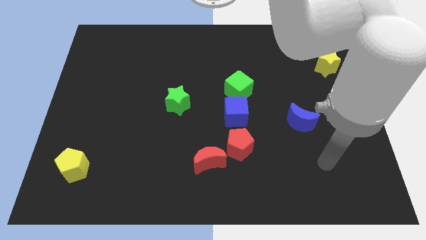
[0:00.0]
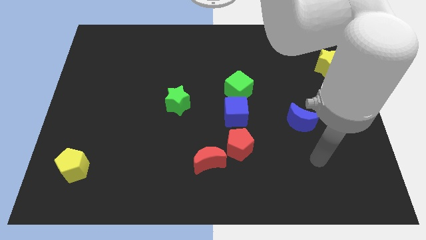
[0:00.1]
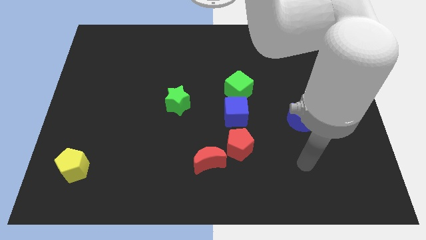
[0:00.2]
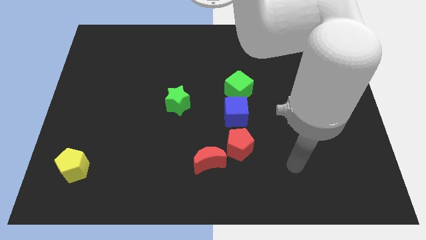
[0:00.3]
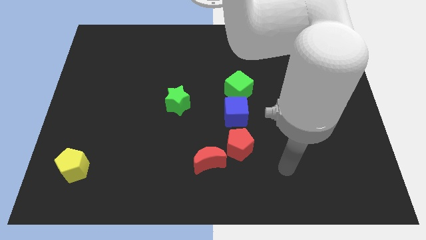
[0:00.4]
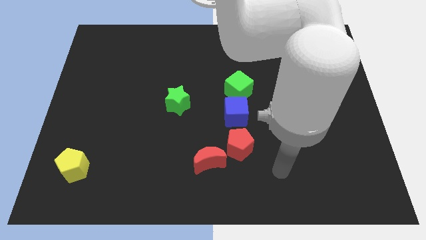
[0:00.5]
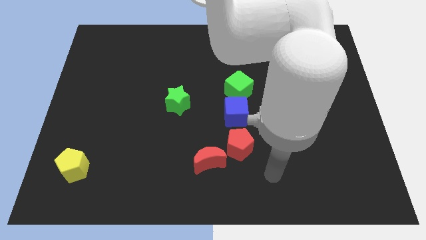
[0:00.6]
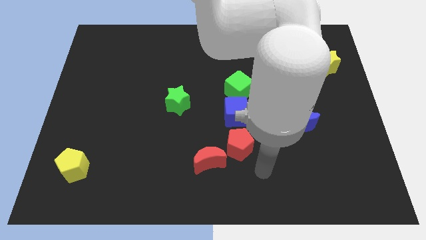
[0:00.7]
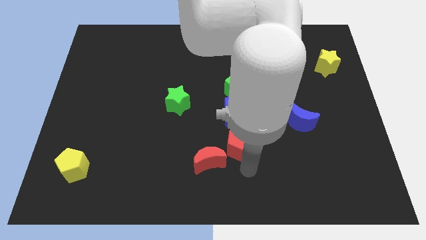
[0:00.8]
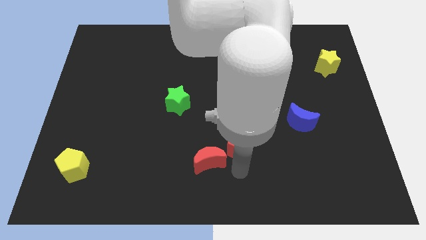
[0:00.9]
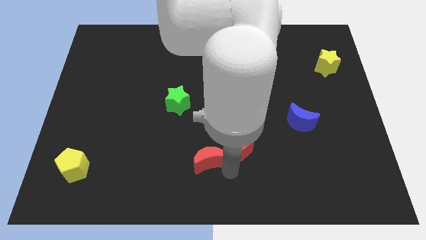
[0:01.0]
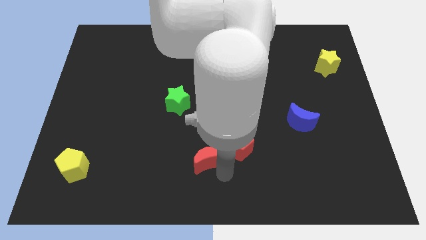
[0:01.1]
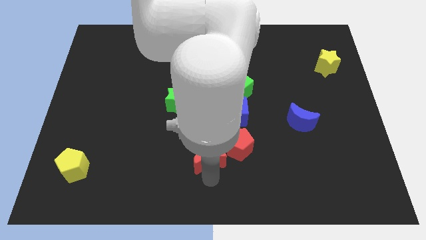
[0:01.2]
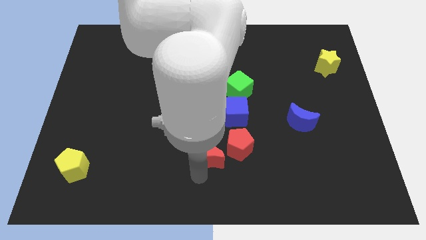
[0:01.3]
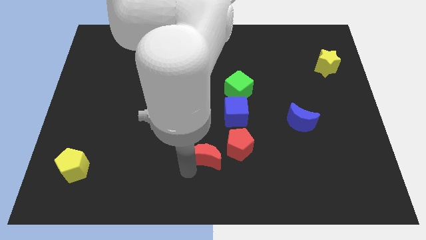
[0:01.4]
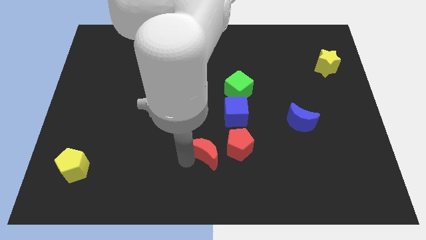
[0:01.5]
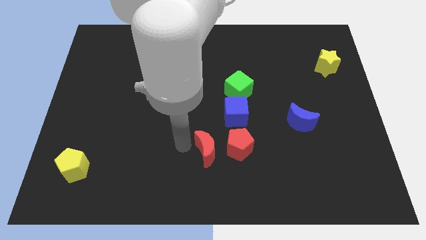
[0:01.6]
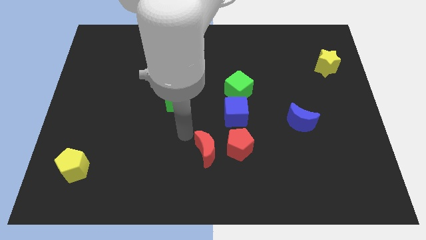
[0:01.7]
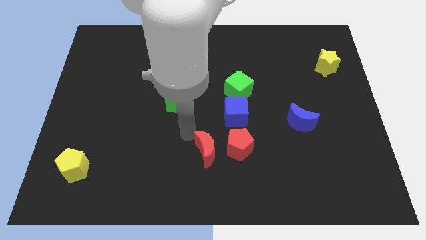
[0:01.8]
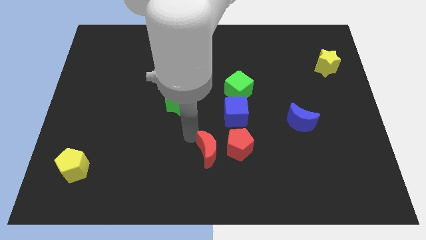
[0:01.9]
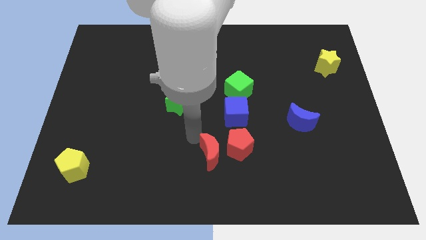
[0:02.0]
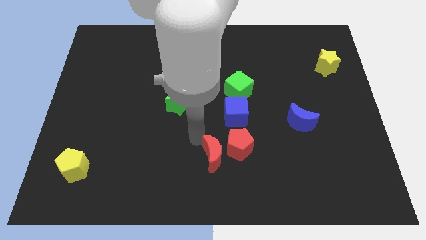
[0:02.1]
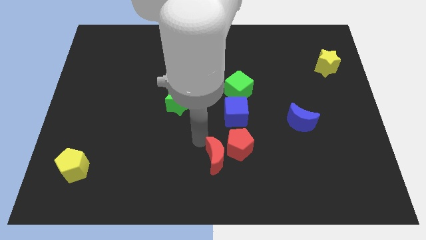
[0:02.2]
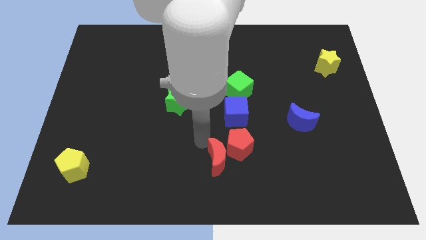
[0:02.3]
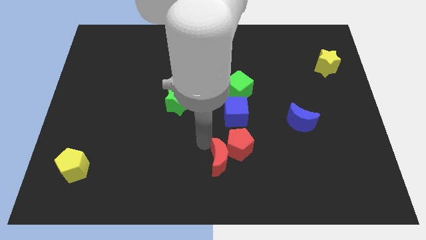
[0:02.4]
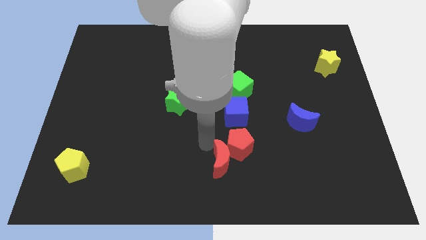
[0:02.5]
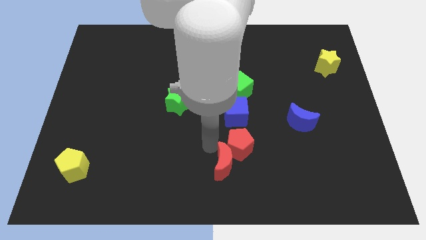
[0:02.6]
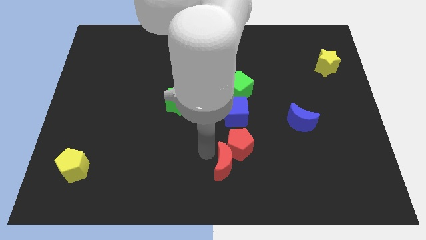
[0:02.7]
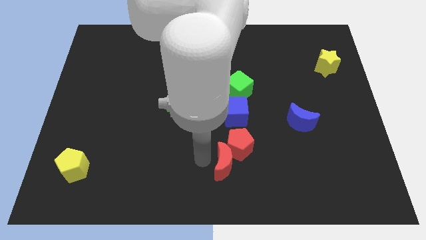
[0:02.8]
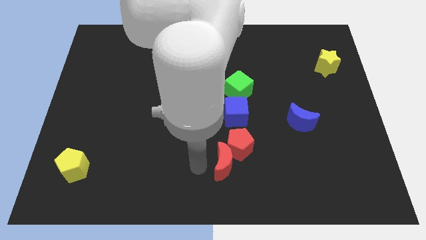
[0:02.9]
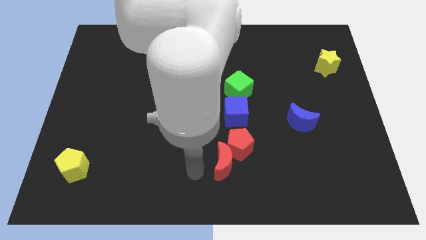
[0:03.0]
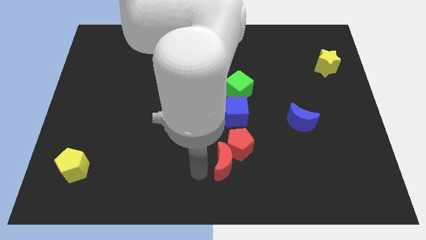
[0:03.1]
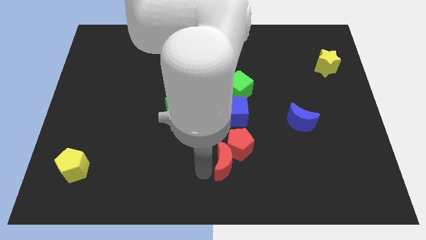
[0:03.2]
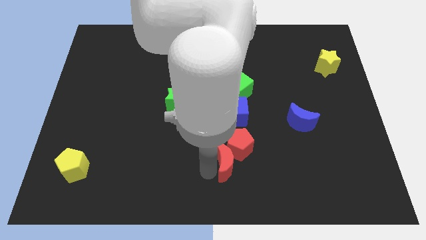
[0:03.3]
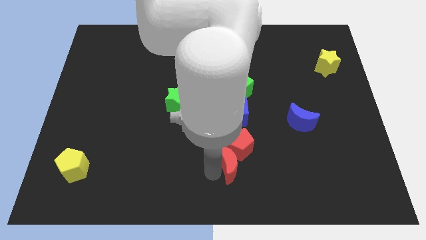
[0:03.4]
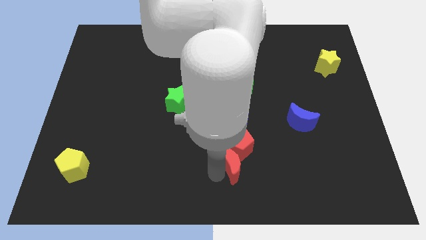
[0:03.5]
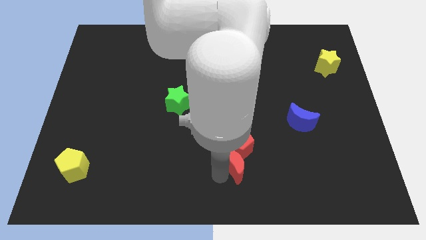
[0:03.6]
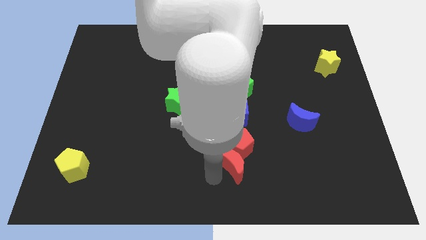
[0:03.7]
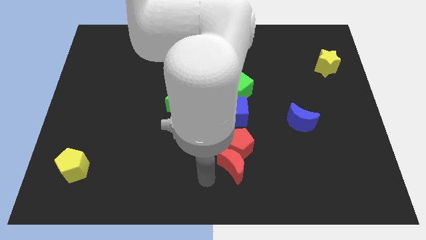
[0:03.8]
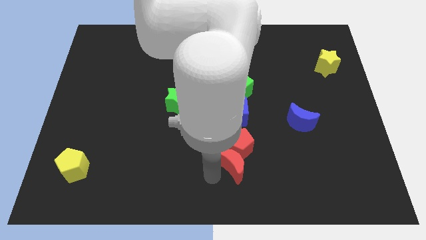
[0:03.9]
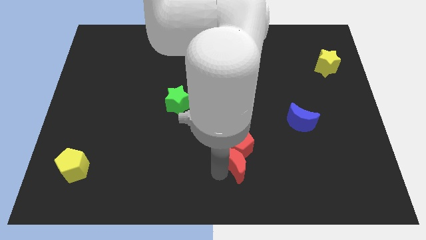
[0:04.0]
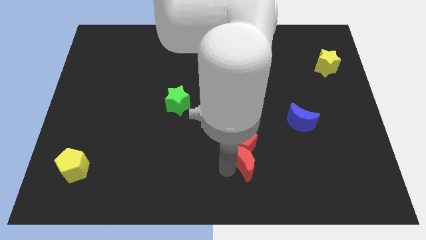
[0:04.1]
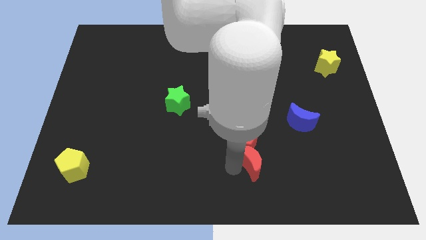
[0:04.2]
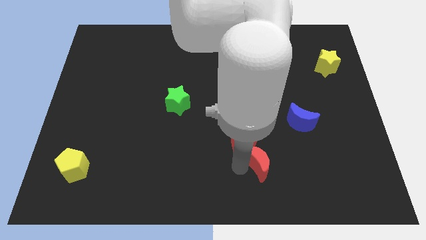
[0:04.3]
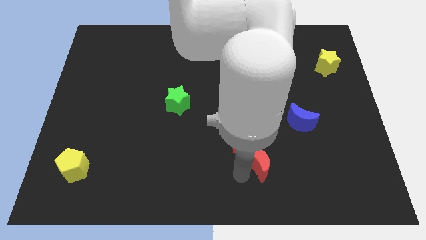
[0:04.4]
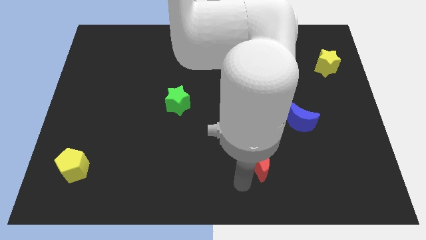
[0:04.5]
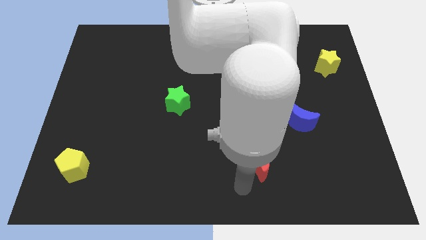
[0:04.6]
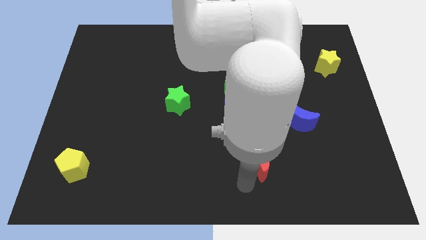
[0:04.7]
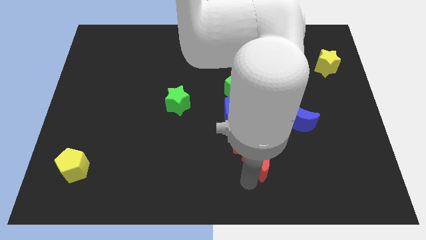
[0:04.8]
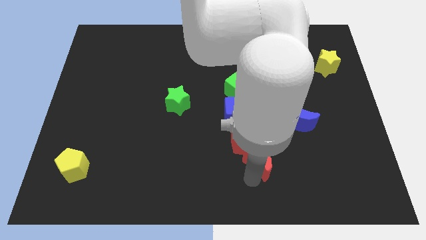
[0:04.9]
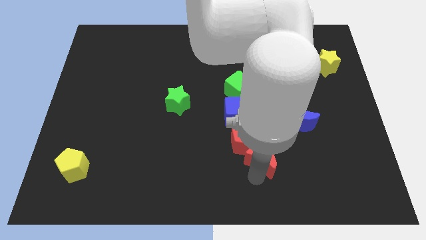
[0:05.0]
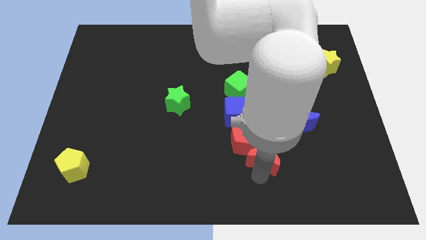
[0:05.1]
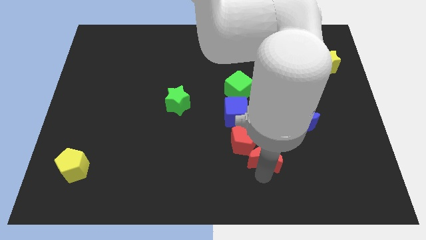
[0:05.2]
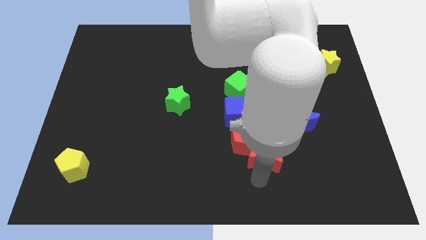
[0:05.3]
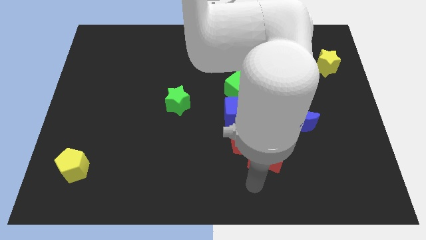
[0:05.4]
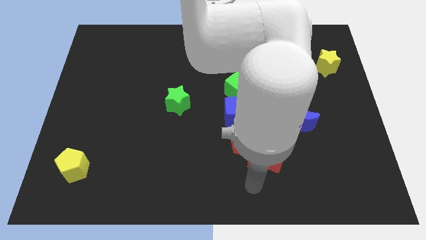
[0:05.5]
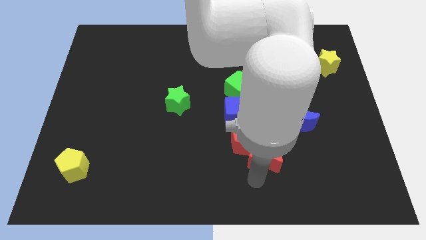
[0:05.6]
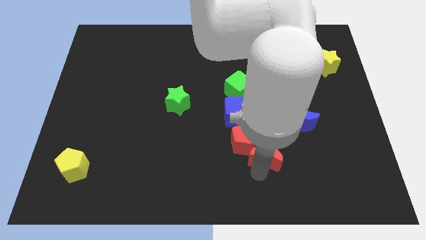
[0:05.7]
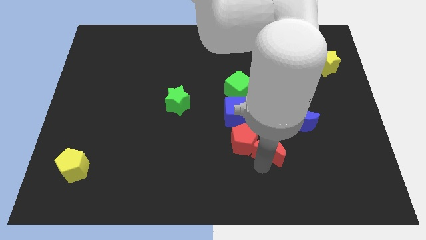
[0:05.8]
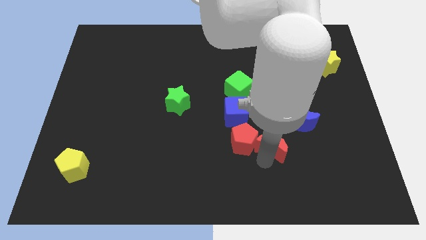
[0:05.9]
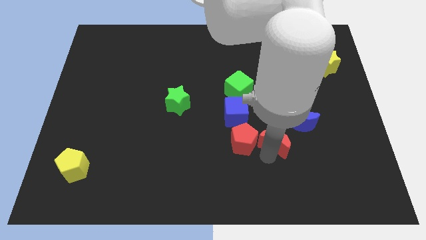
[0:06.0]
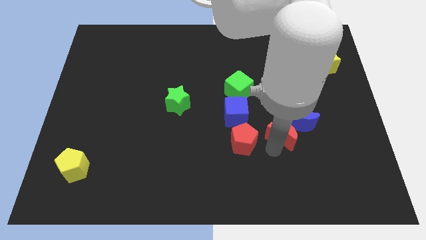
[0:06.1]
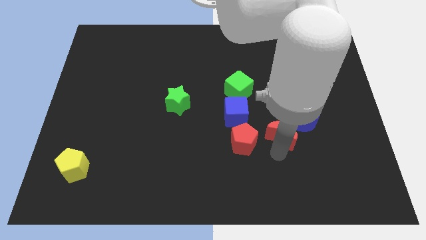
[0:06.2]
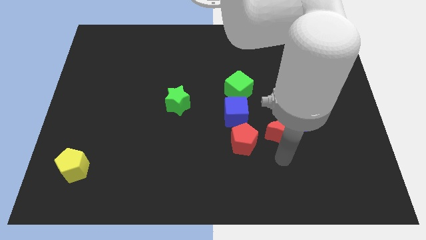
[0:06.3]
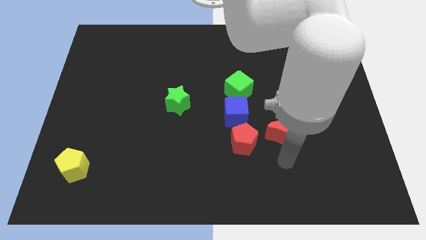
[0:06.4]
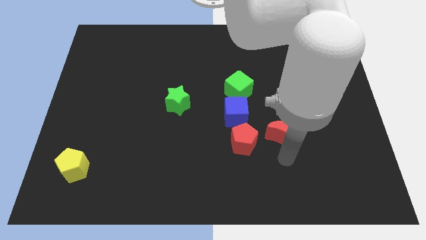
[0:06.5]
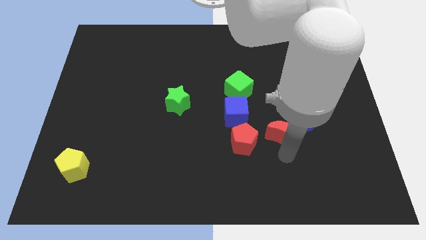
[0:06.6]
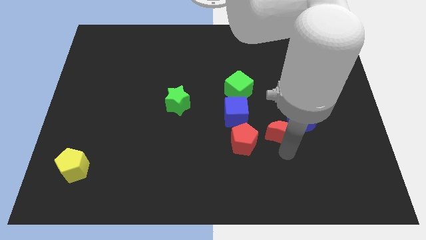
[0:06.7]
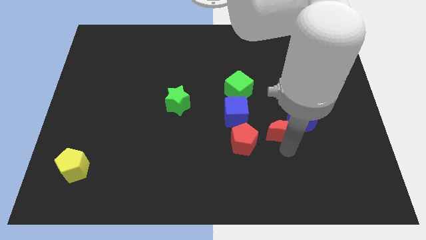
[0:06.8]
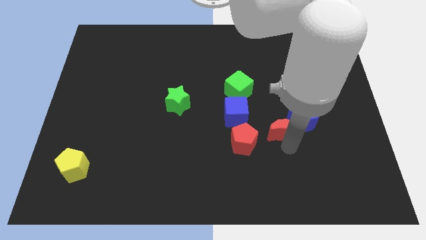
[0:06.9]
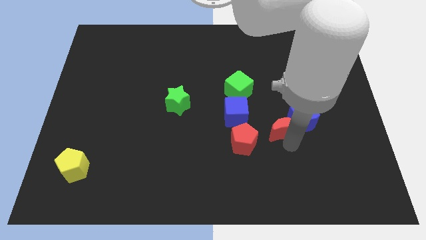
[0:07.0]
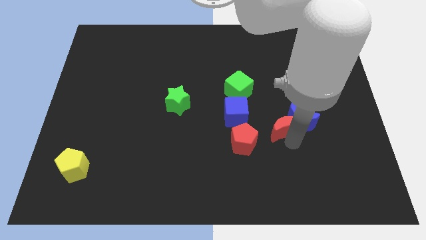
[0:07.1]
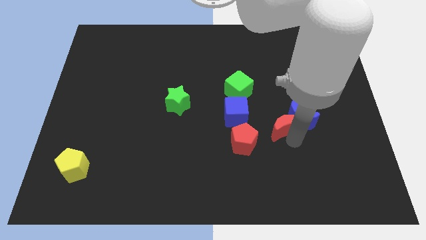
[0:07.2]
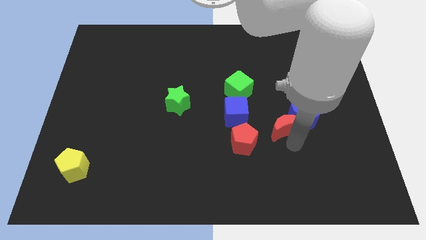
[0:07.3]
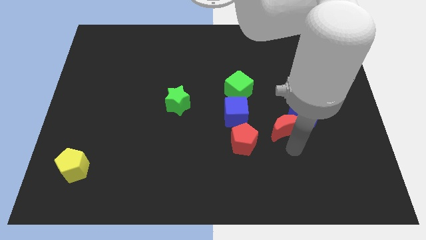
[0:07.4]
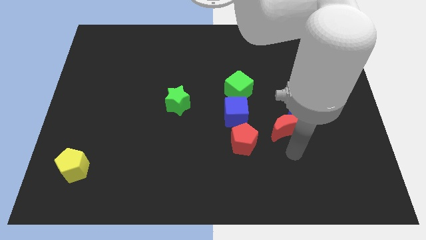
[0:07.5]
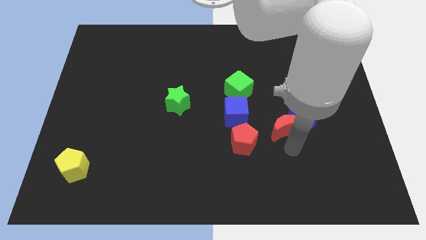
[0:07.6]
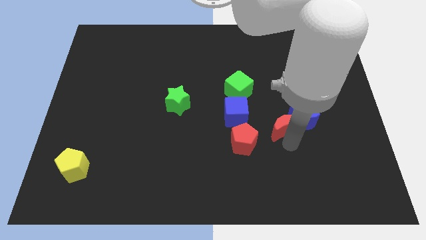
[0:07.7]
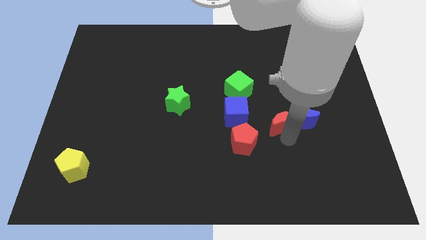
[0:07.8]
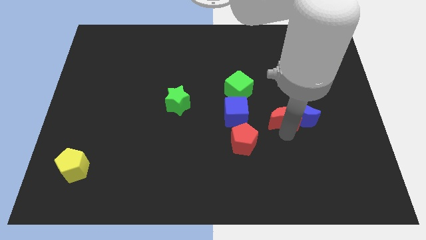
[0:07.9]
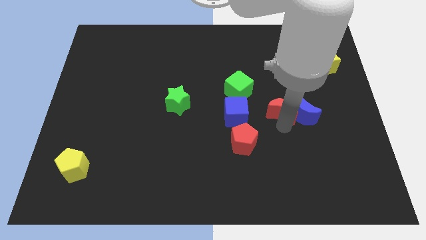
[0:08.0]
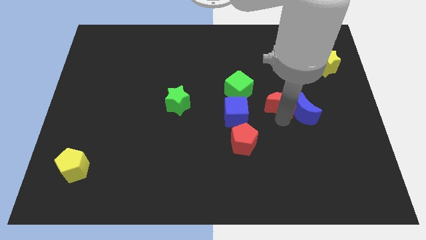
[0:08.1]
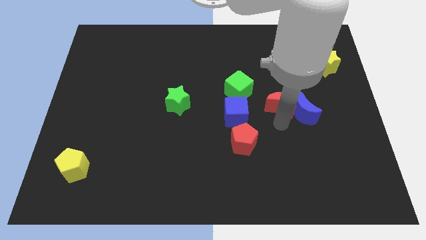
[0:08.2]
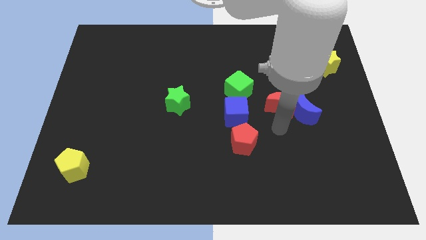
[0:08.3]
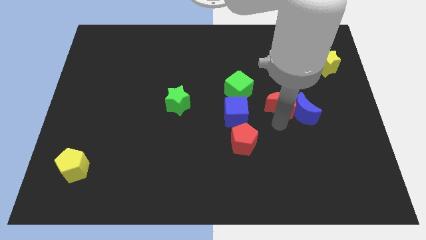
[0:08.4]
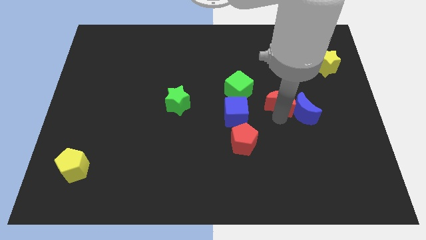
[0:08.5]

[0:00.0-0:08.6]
push the red moon to the right of the green cube
